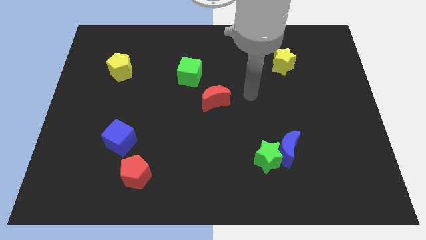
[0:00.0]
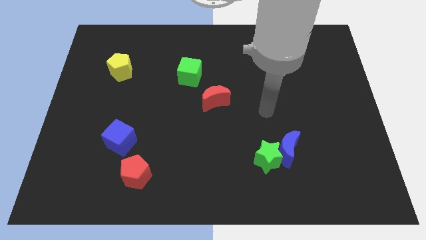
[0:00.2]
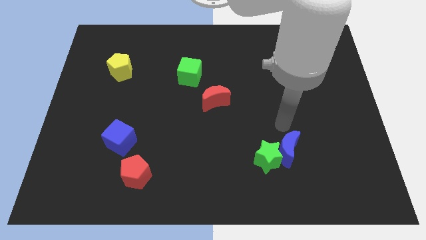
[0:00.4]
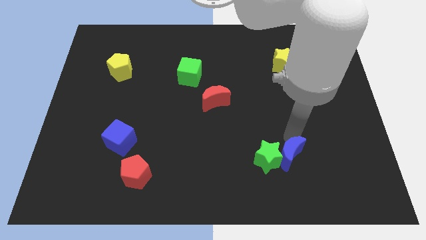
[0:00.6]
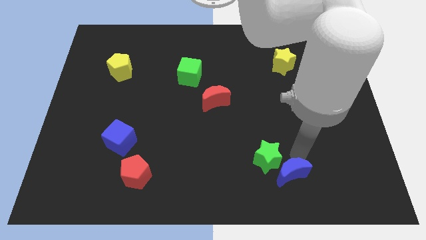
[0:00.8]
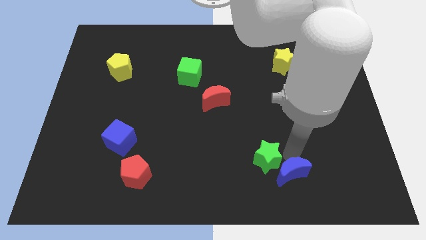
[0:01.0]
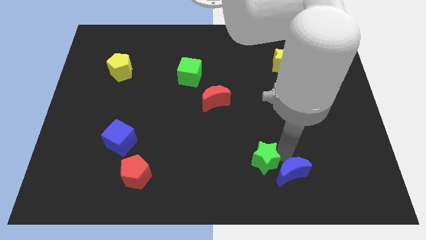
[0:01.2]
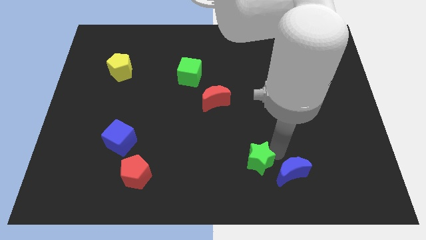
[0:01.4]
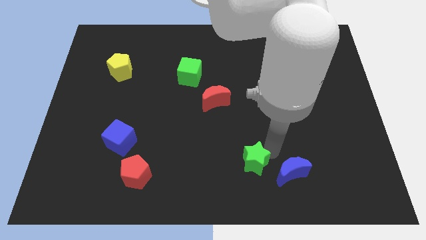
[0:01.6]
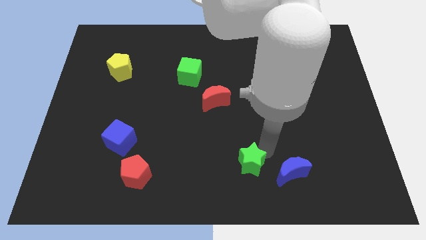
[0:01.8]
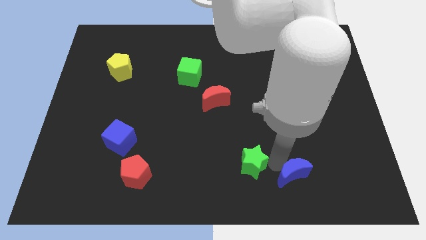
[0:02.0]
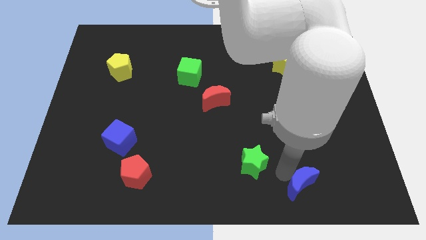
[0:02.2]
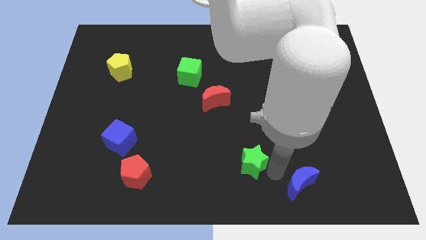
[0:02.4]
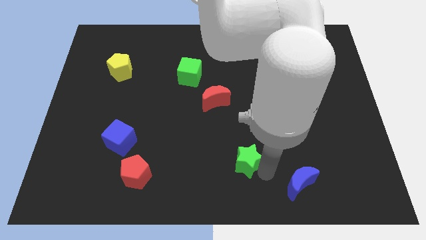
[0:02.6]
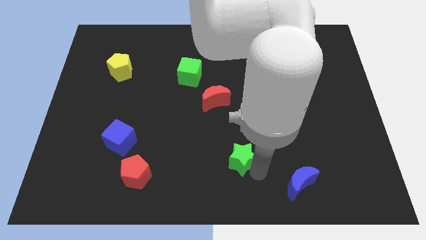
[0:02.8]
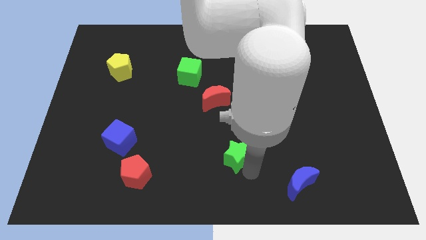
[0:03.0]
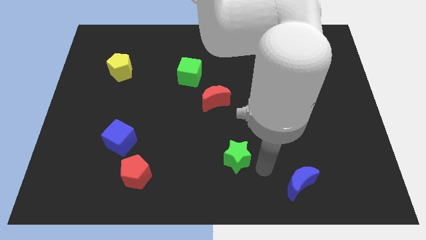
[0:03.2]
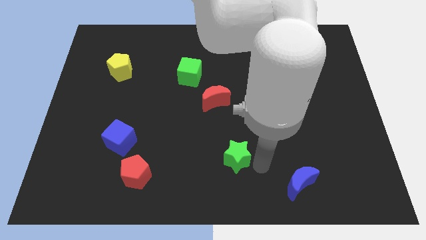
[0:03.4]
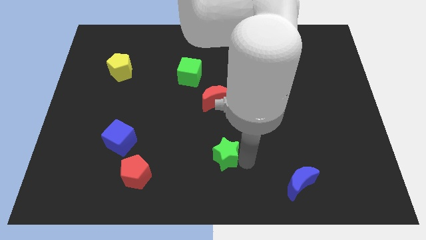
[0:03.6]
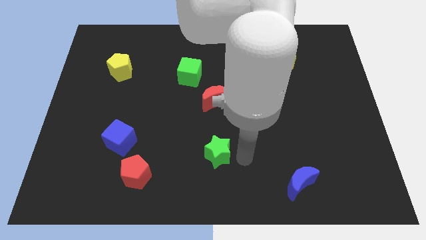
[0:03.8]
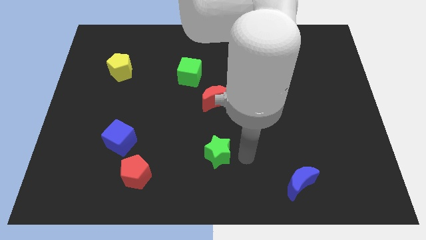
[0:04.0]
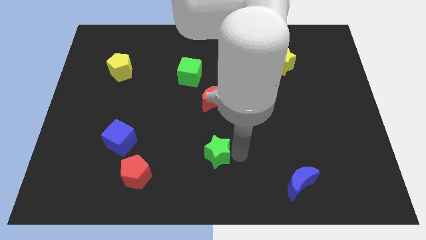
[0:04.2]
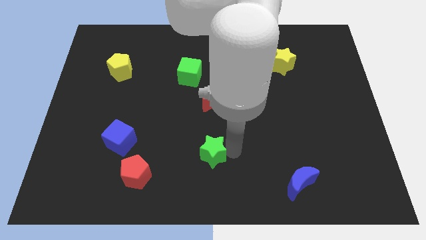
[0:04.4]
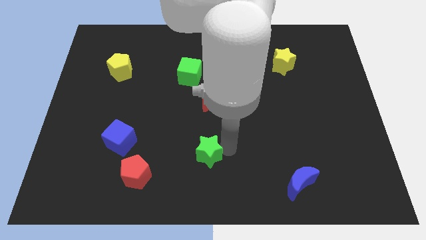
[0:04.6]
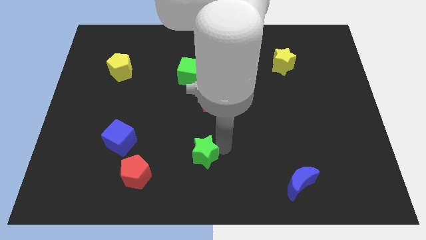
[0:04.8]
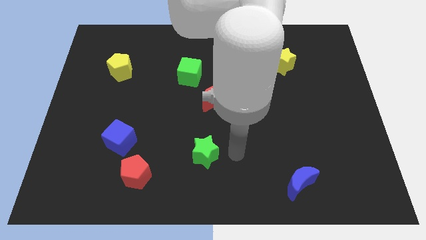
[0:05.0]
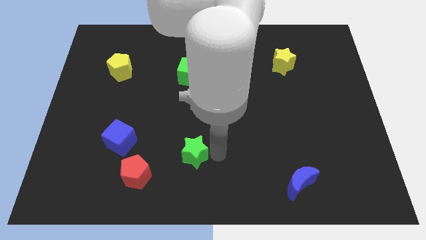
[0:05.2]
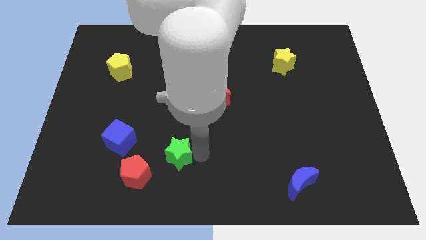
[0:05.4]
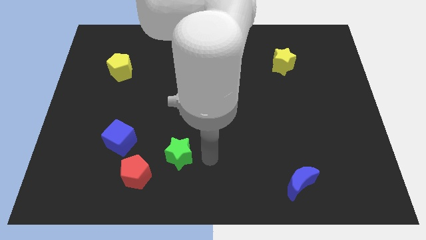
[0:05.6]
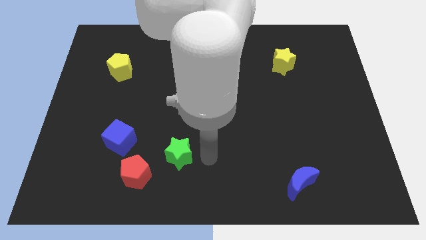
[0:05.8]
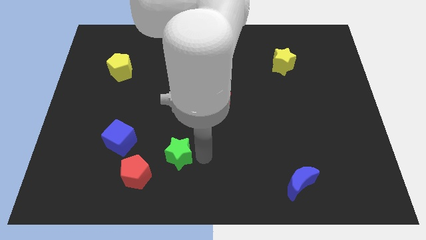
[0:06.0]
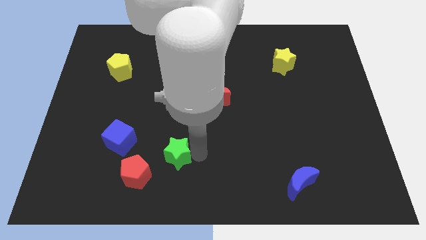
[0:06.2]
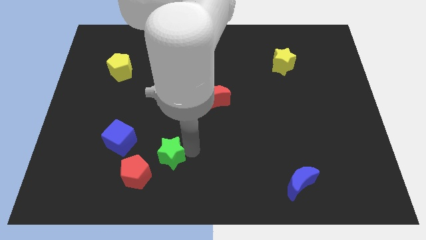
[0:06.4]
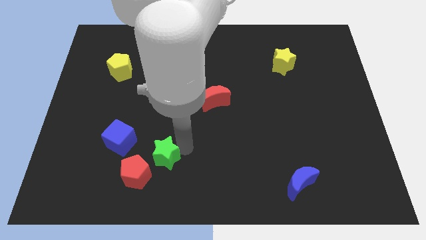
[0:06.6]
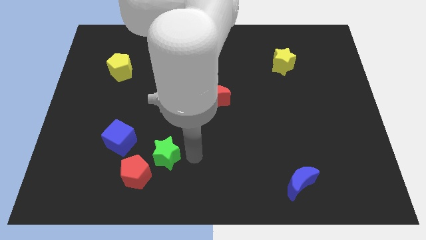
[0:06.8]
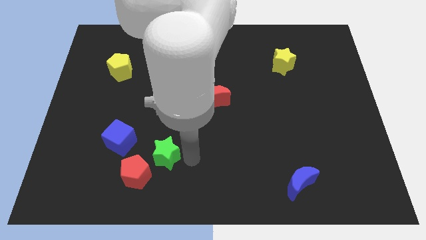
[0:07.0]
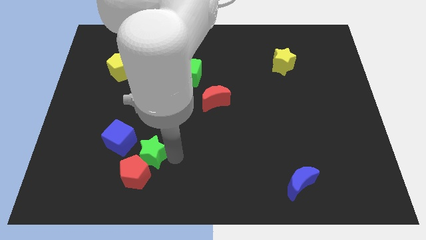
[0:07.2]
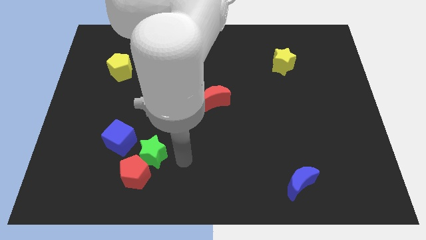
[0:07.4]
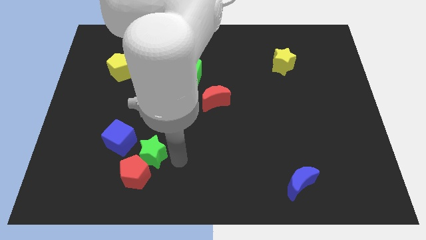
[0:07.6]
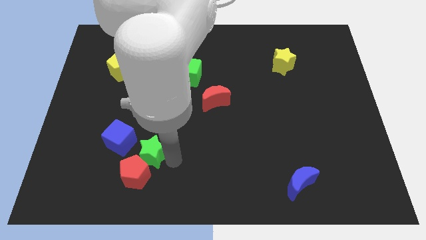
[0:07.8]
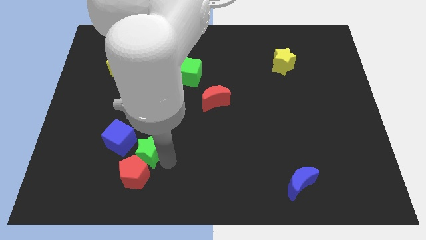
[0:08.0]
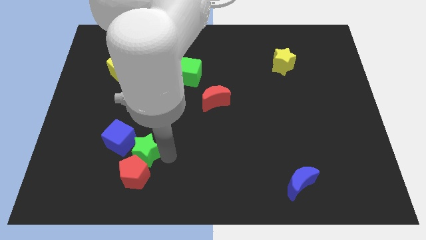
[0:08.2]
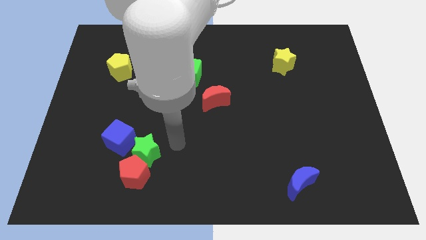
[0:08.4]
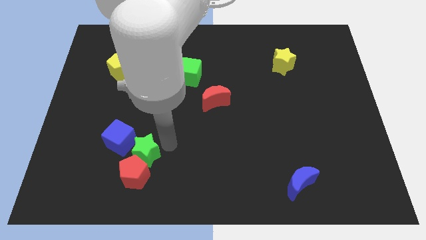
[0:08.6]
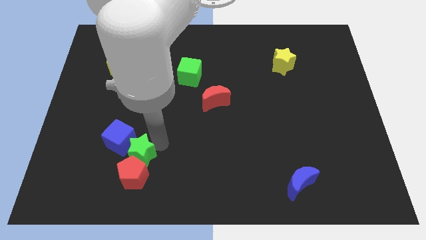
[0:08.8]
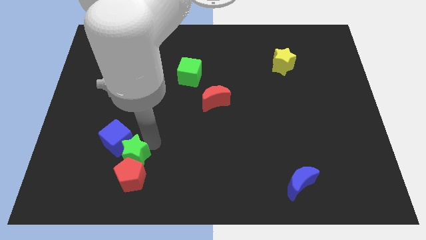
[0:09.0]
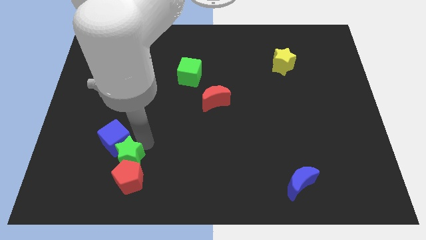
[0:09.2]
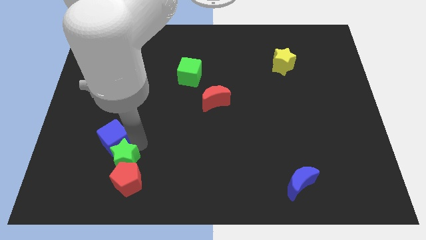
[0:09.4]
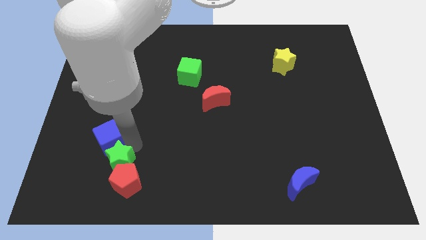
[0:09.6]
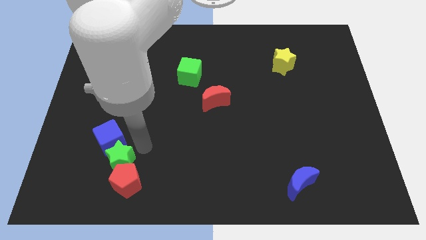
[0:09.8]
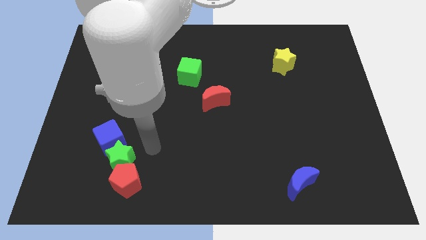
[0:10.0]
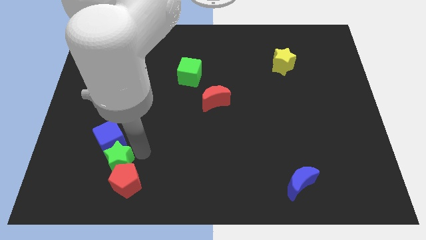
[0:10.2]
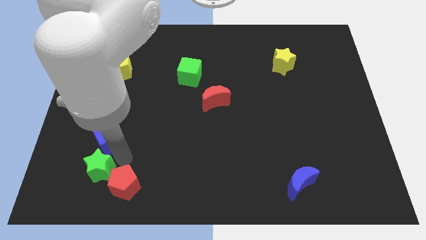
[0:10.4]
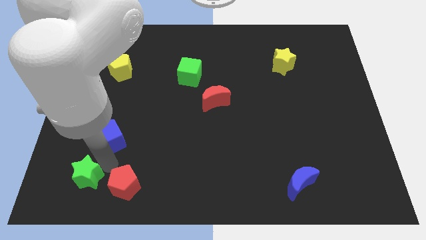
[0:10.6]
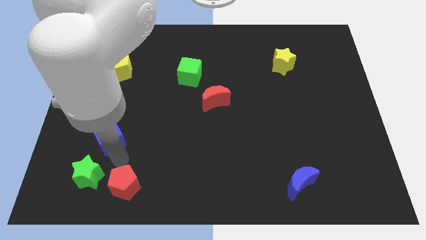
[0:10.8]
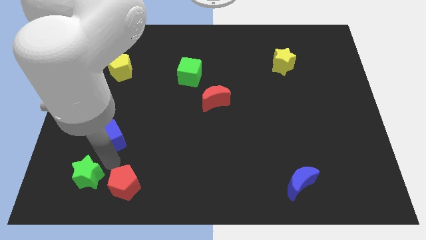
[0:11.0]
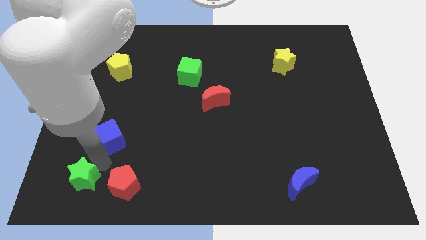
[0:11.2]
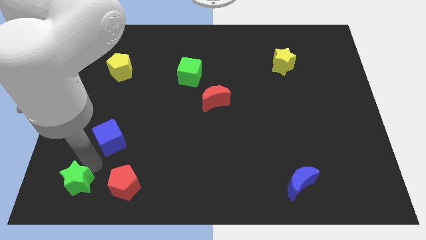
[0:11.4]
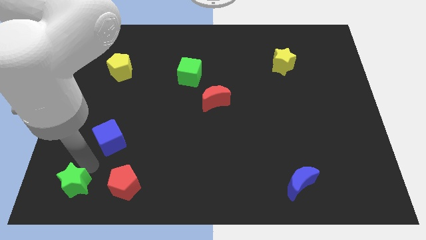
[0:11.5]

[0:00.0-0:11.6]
push the green star to the bottom left

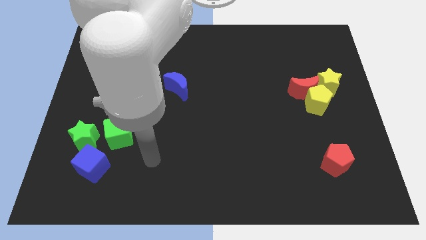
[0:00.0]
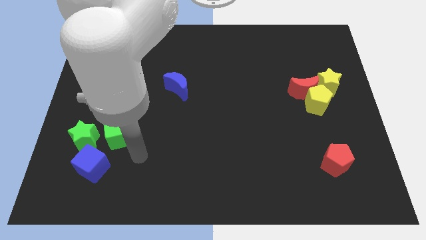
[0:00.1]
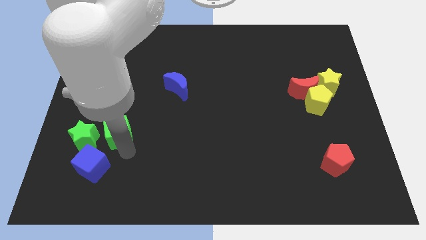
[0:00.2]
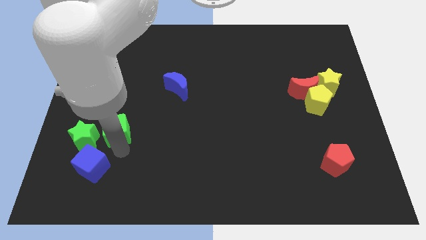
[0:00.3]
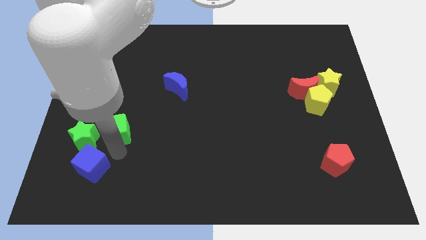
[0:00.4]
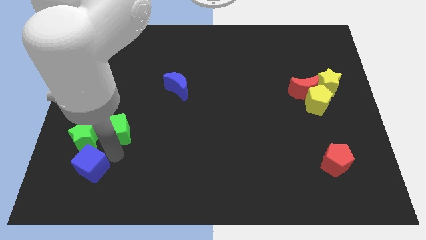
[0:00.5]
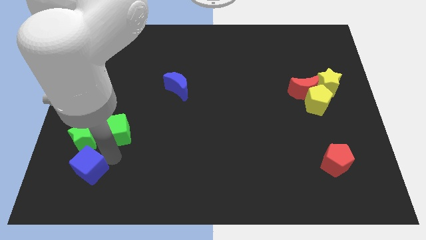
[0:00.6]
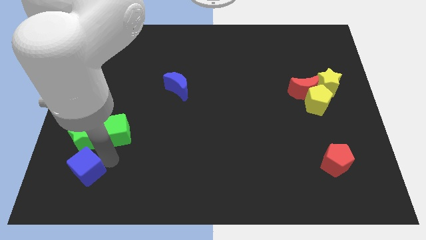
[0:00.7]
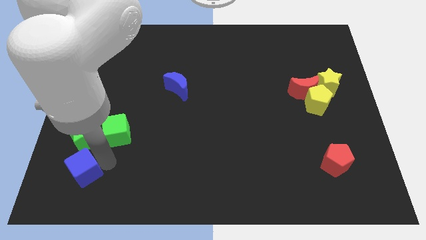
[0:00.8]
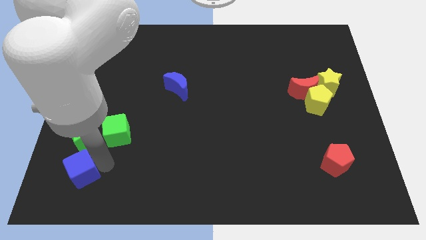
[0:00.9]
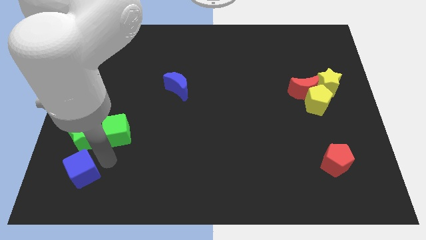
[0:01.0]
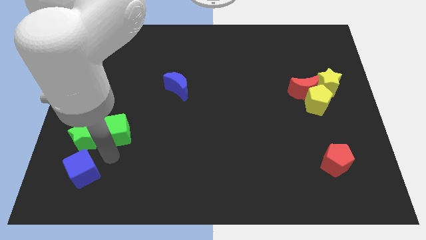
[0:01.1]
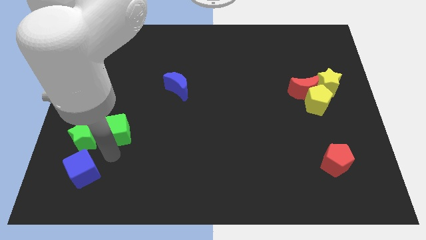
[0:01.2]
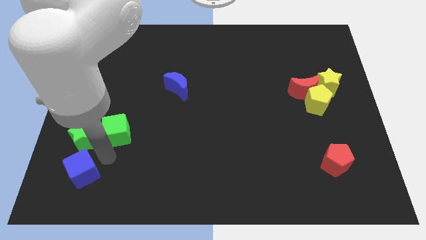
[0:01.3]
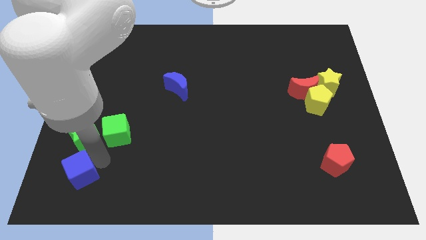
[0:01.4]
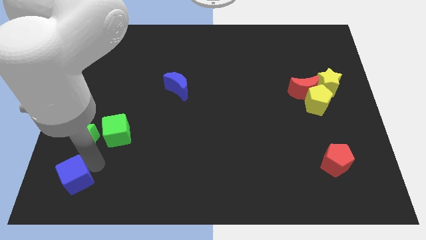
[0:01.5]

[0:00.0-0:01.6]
put the blue cube to the lower left corner
